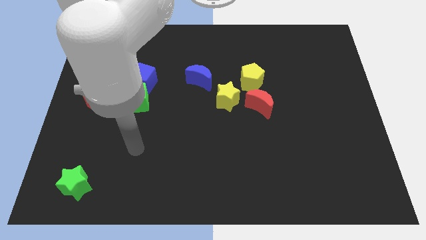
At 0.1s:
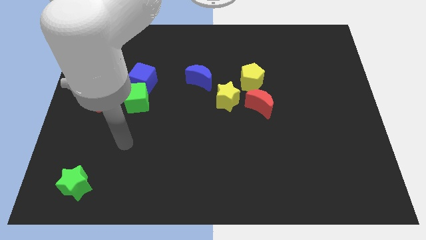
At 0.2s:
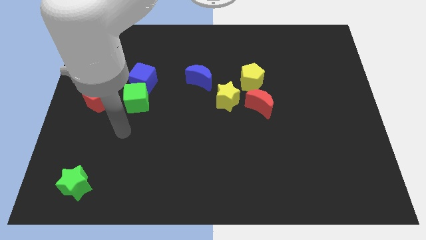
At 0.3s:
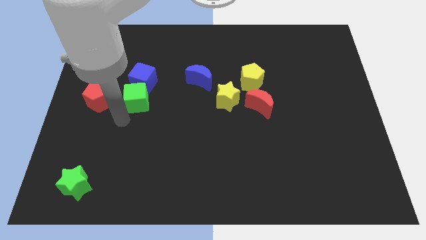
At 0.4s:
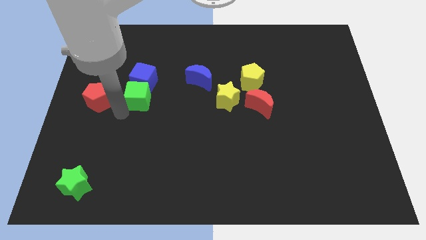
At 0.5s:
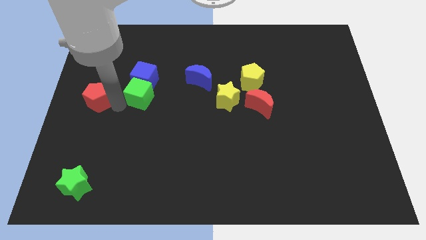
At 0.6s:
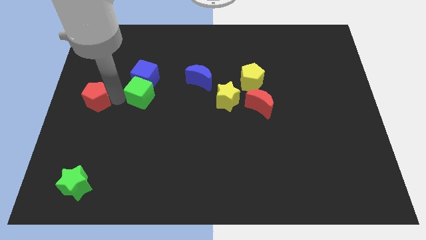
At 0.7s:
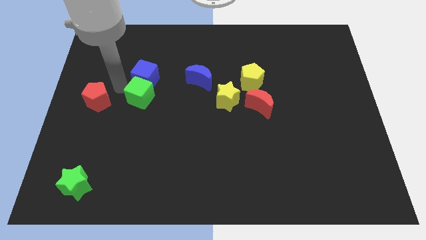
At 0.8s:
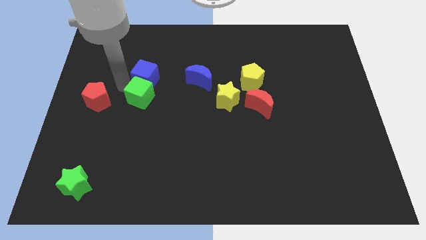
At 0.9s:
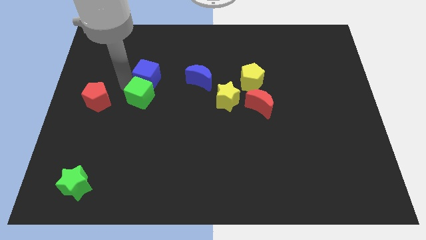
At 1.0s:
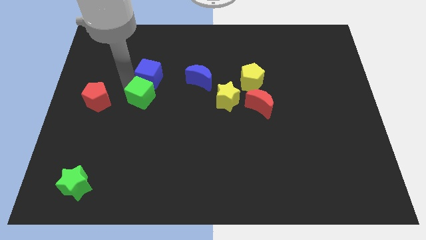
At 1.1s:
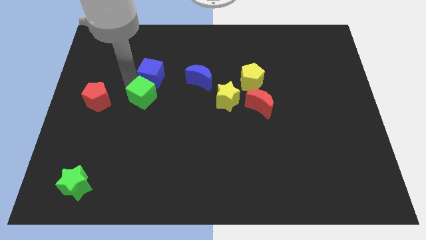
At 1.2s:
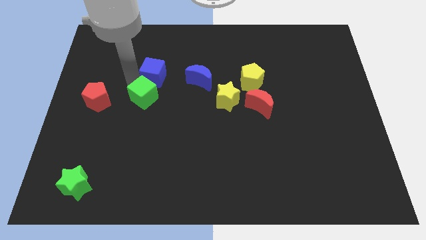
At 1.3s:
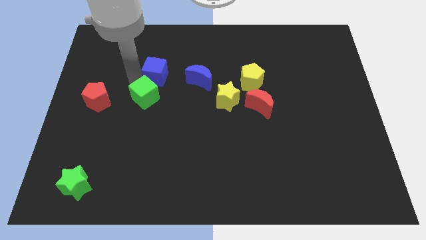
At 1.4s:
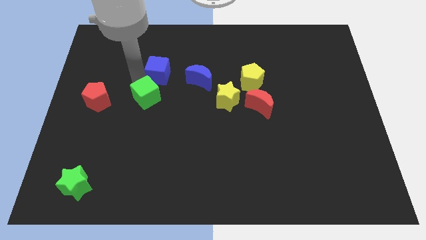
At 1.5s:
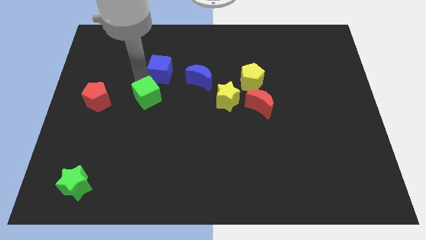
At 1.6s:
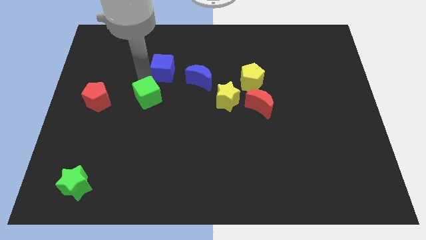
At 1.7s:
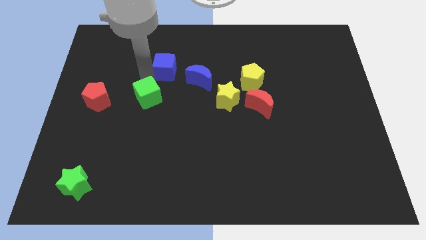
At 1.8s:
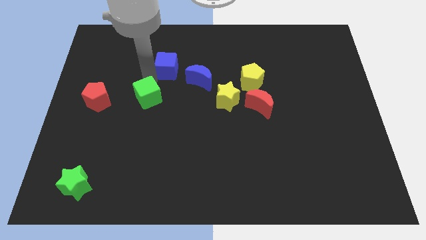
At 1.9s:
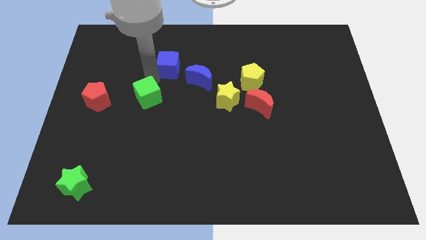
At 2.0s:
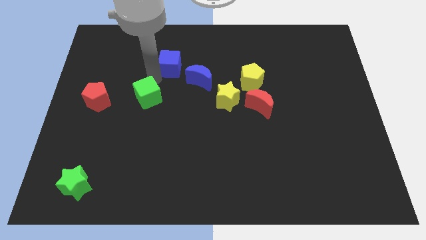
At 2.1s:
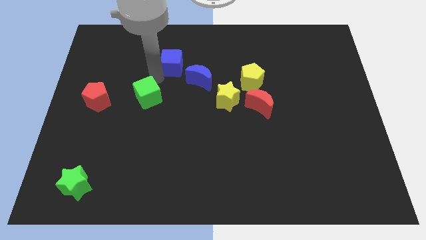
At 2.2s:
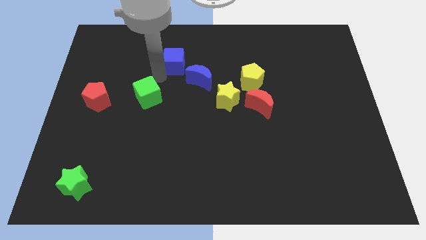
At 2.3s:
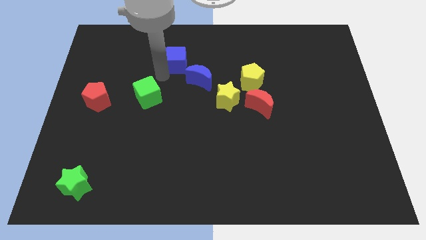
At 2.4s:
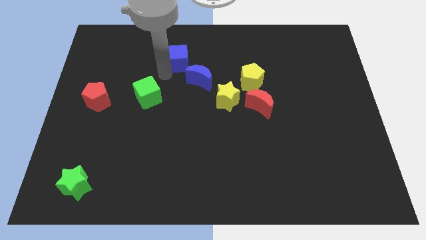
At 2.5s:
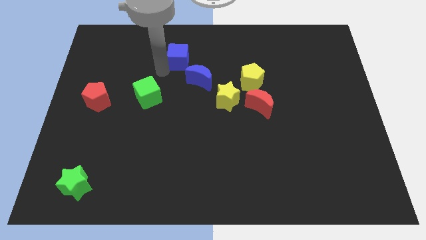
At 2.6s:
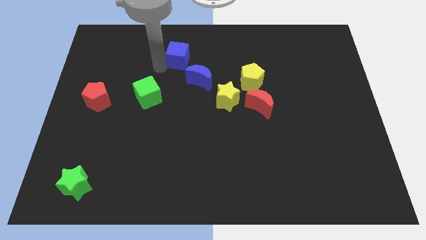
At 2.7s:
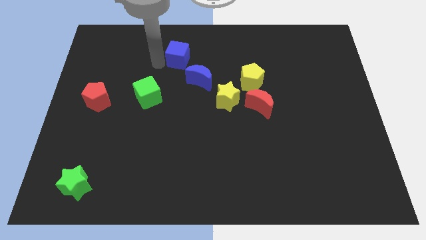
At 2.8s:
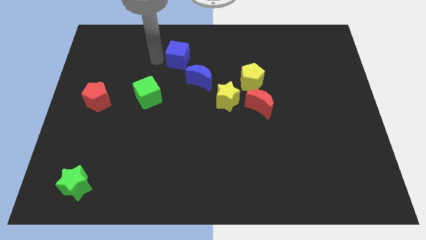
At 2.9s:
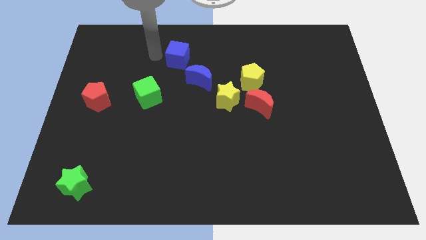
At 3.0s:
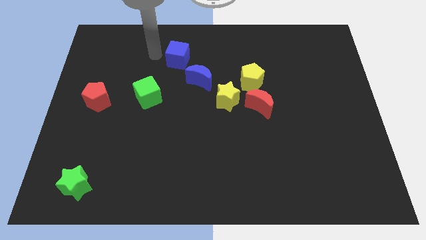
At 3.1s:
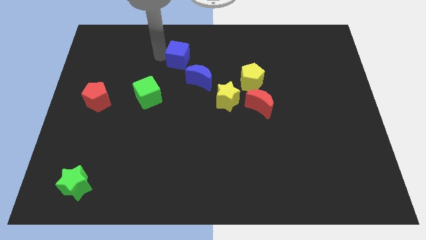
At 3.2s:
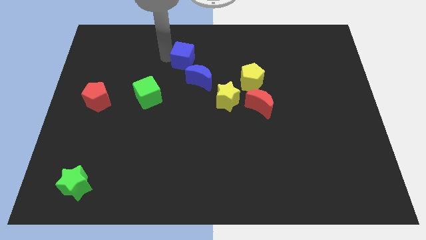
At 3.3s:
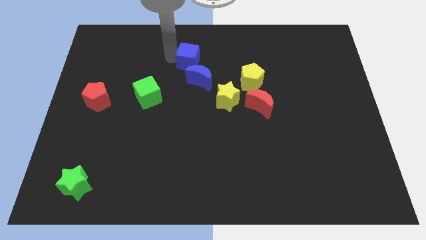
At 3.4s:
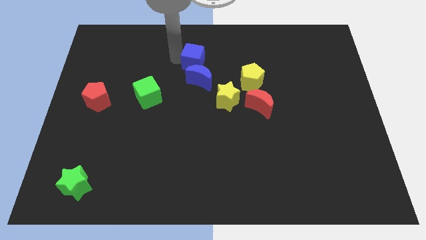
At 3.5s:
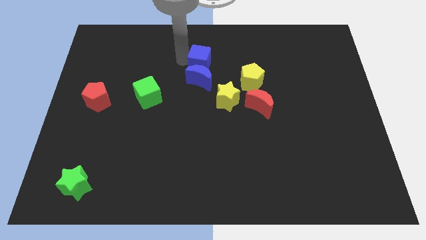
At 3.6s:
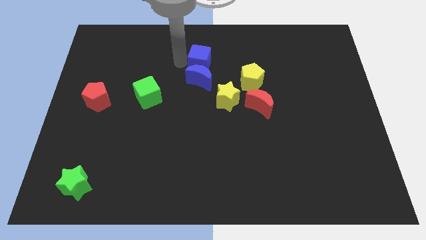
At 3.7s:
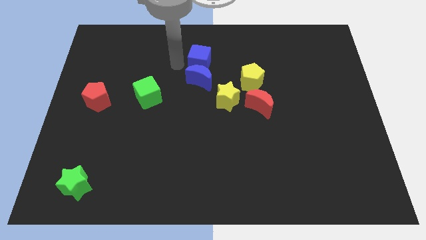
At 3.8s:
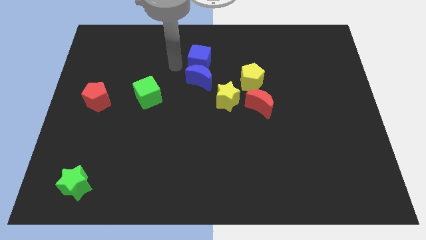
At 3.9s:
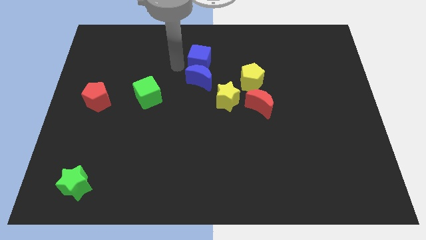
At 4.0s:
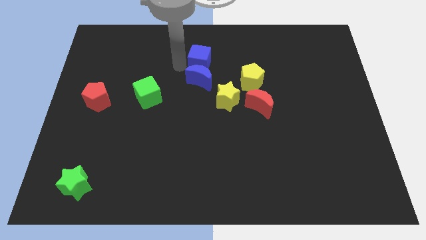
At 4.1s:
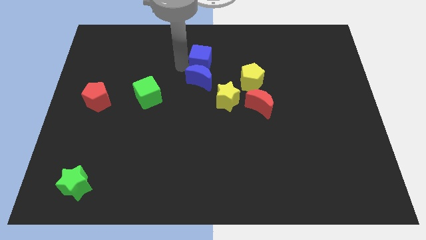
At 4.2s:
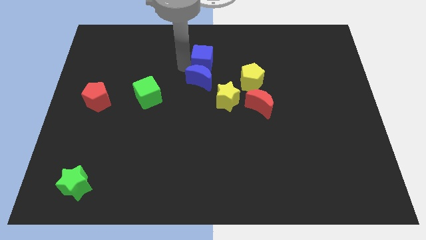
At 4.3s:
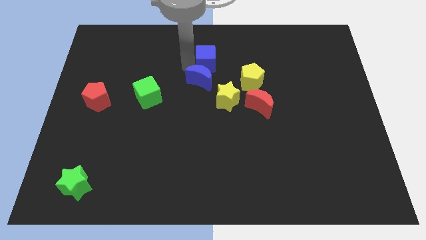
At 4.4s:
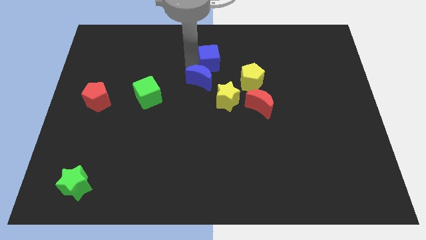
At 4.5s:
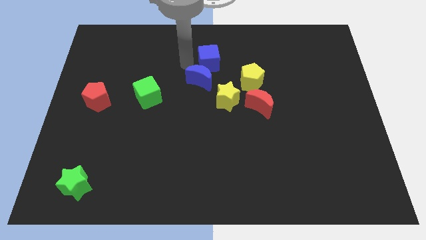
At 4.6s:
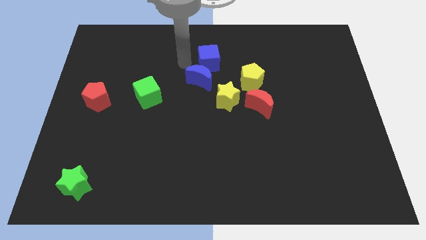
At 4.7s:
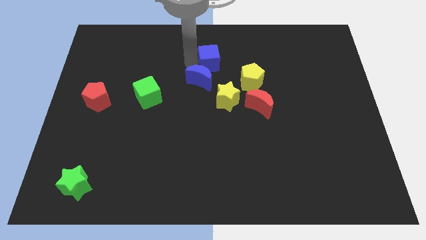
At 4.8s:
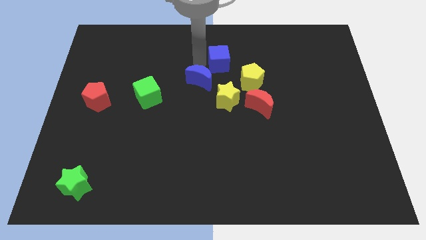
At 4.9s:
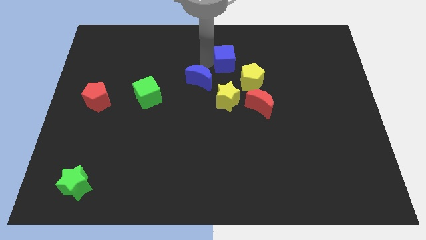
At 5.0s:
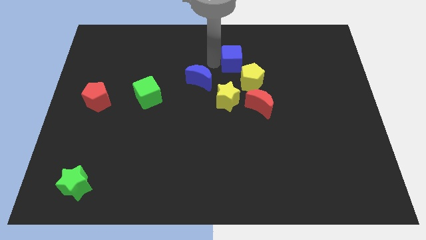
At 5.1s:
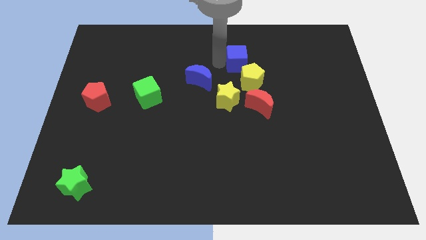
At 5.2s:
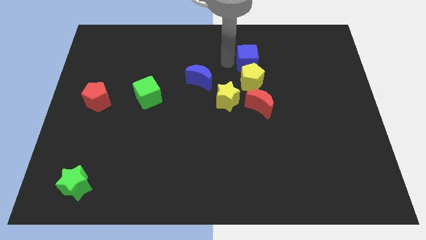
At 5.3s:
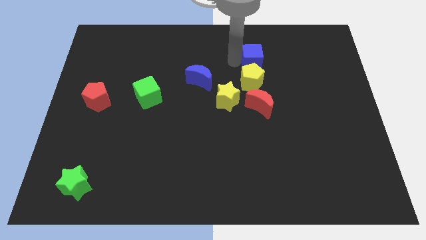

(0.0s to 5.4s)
push the blue cube to the top right of the yellow pentagon

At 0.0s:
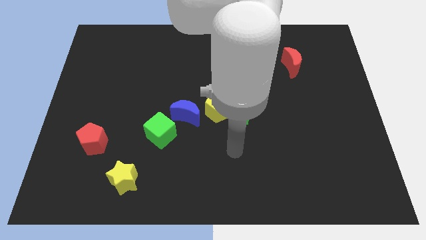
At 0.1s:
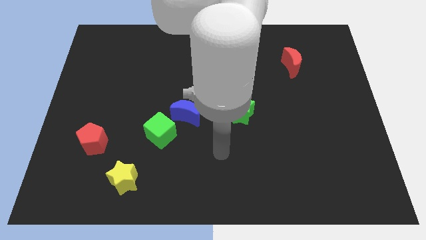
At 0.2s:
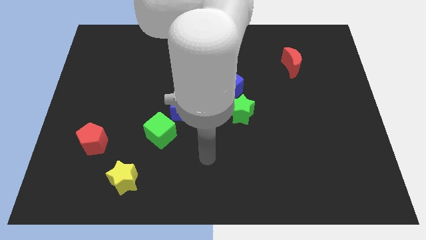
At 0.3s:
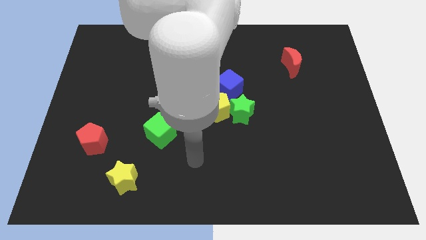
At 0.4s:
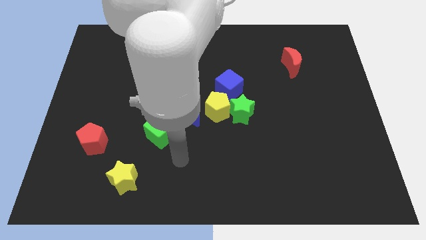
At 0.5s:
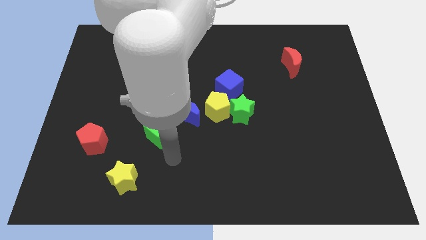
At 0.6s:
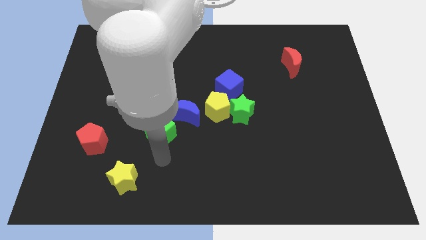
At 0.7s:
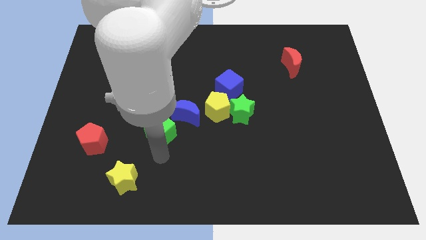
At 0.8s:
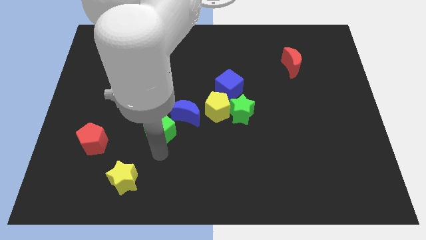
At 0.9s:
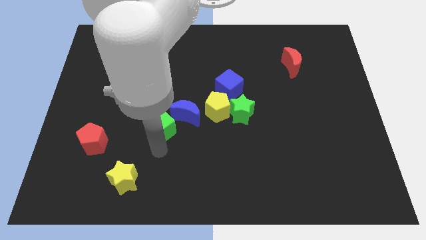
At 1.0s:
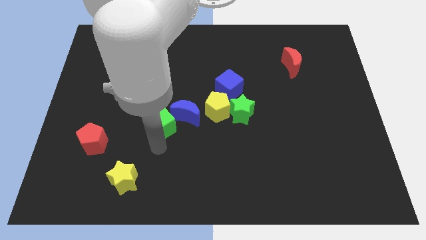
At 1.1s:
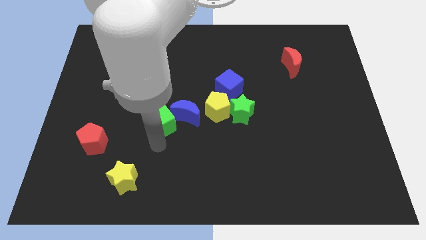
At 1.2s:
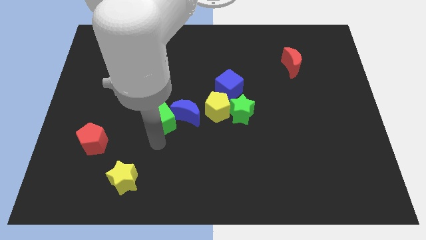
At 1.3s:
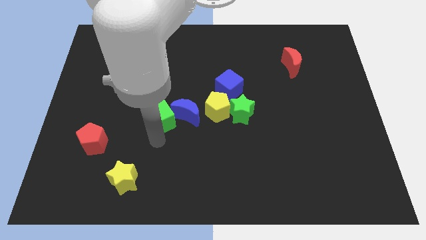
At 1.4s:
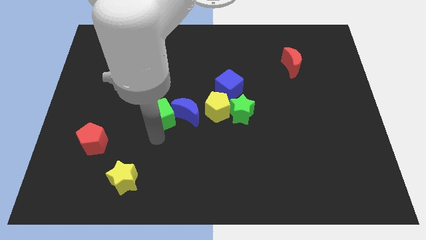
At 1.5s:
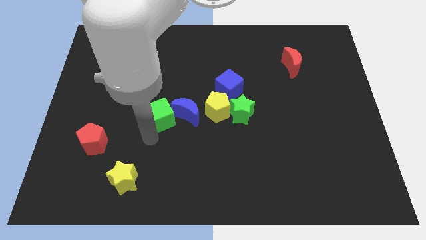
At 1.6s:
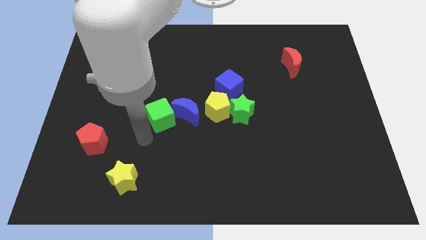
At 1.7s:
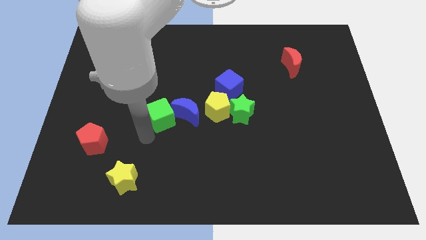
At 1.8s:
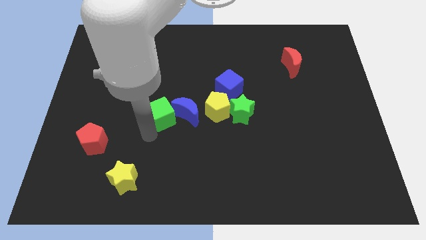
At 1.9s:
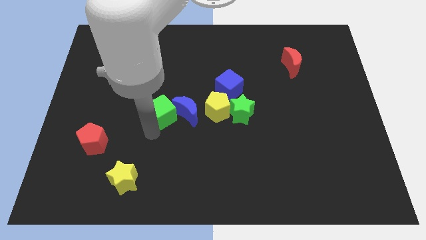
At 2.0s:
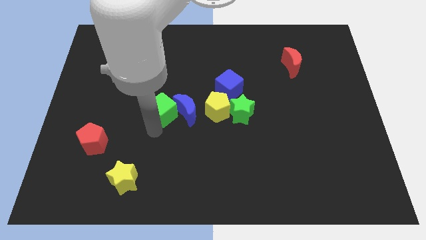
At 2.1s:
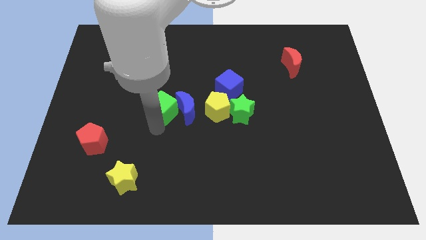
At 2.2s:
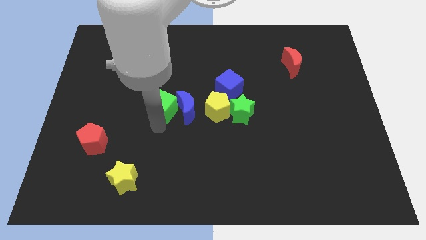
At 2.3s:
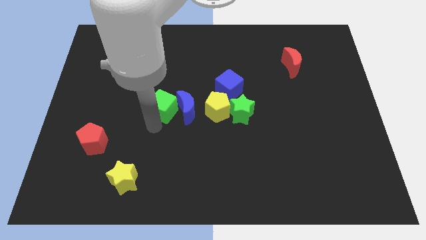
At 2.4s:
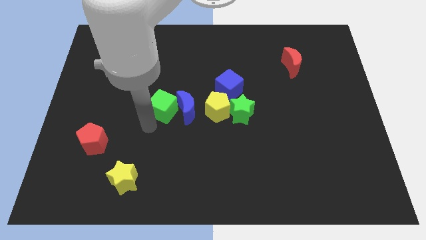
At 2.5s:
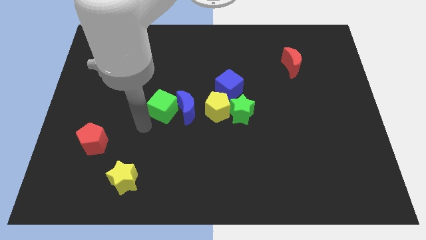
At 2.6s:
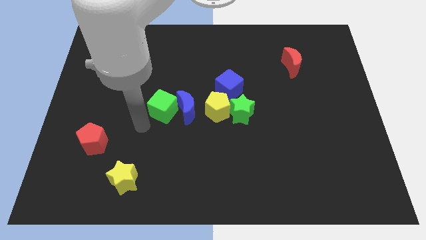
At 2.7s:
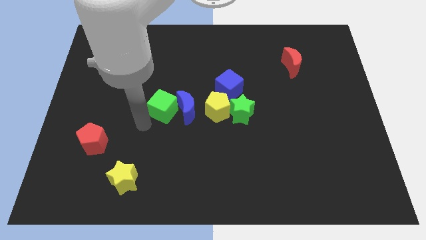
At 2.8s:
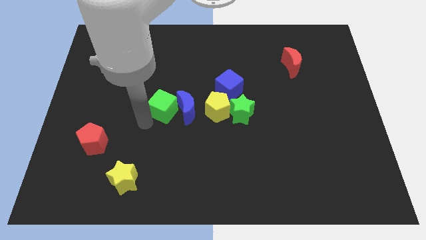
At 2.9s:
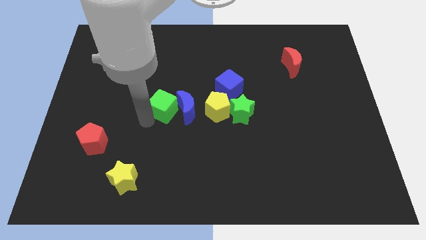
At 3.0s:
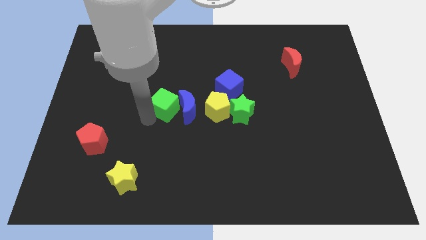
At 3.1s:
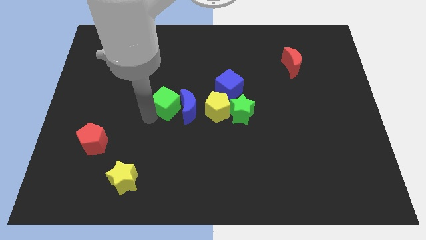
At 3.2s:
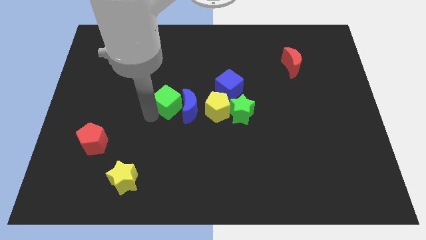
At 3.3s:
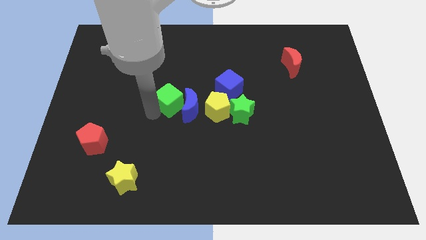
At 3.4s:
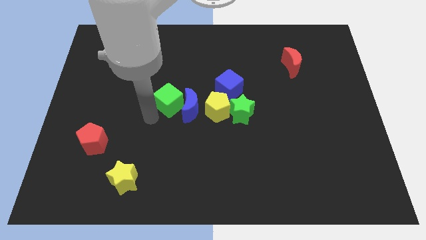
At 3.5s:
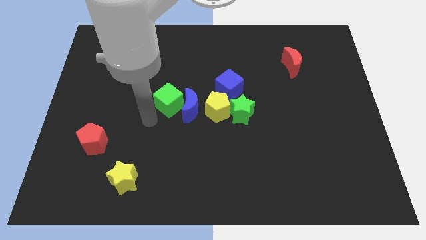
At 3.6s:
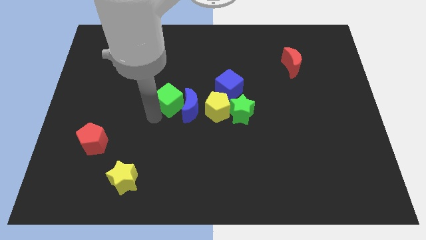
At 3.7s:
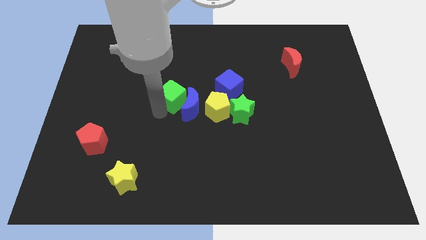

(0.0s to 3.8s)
push the green cube left of the blue cube
